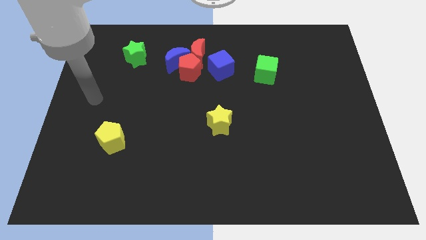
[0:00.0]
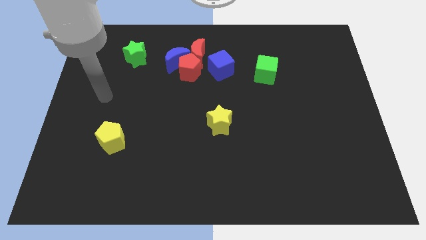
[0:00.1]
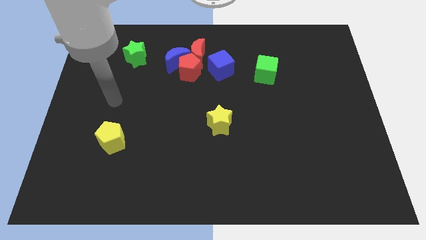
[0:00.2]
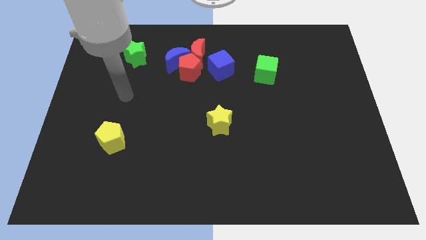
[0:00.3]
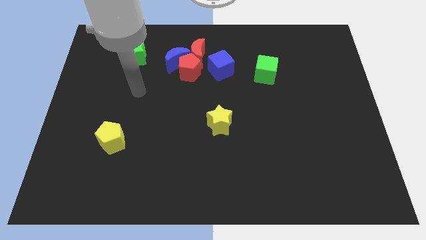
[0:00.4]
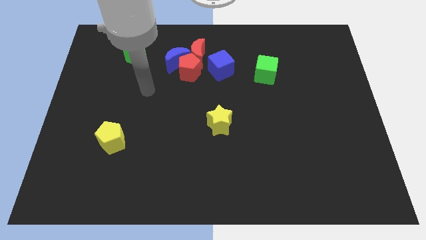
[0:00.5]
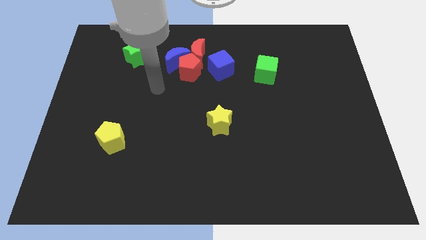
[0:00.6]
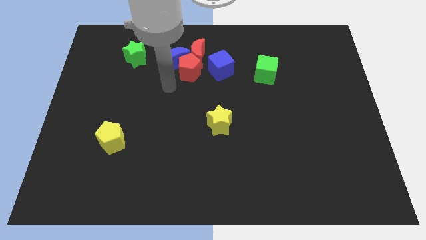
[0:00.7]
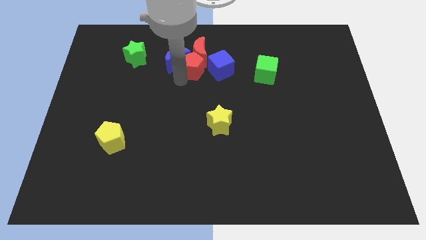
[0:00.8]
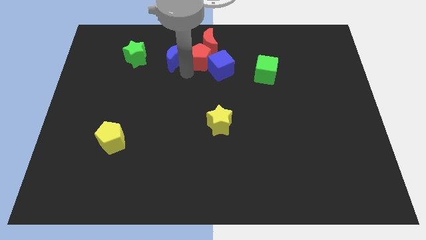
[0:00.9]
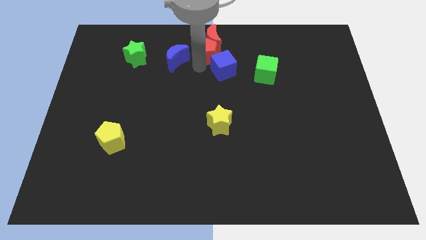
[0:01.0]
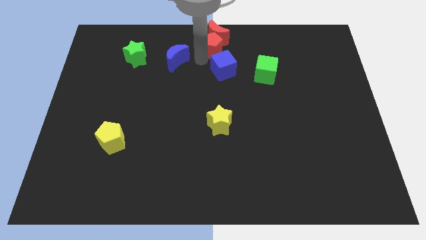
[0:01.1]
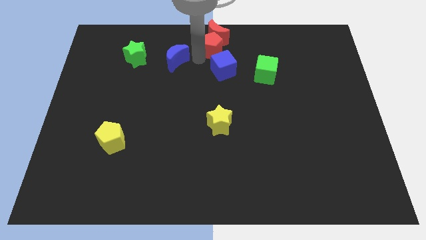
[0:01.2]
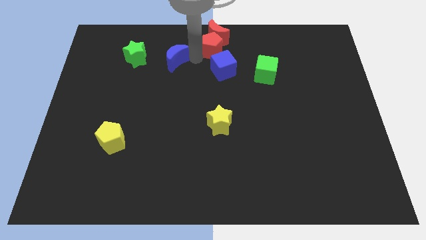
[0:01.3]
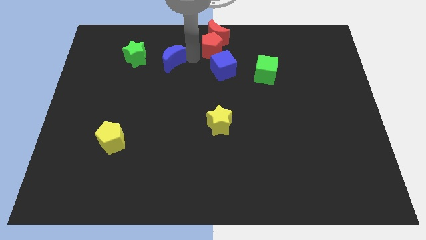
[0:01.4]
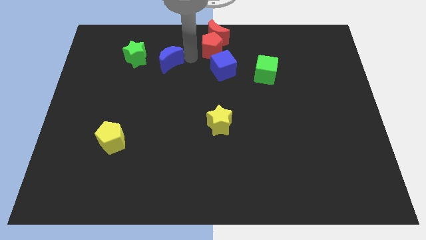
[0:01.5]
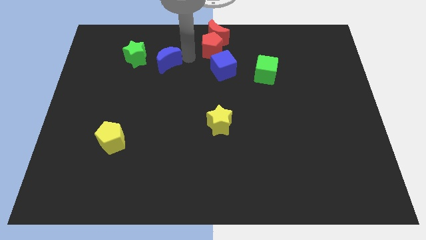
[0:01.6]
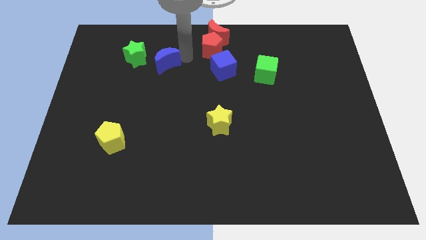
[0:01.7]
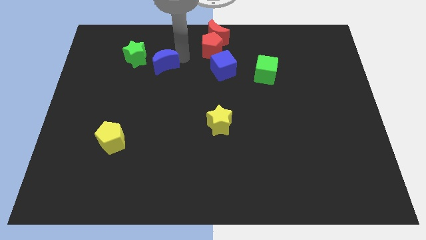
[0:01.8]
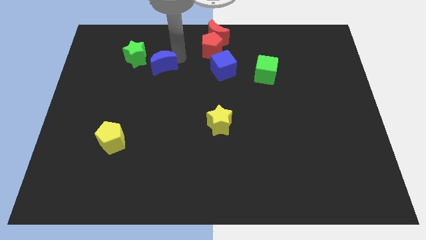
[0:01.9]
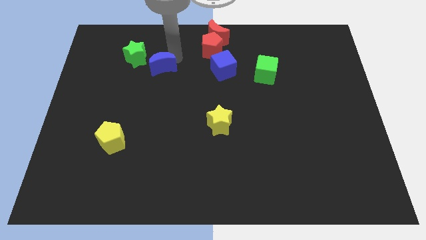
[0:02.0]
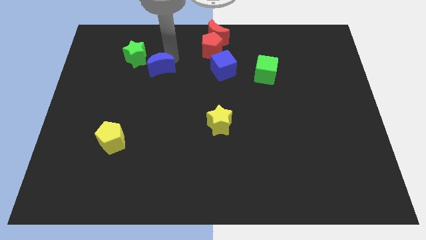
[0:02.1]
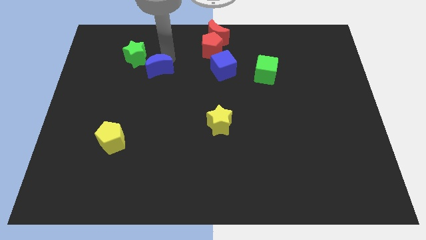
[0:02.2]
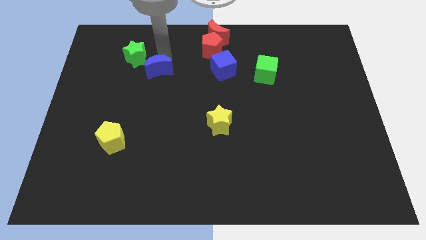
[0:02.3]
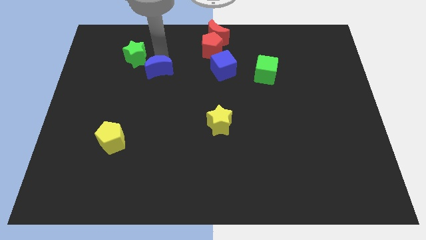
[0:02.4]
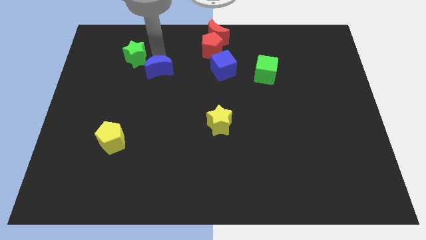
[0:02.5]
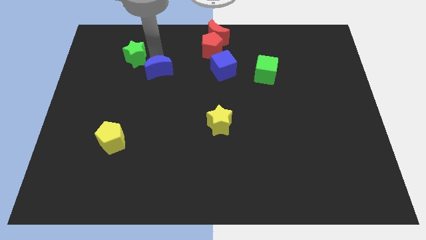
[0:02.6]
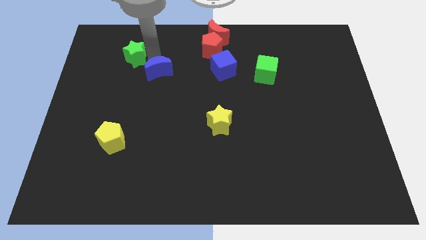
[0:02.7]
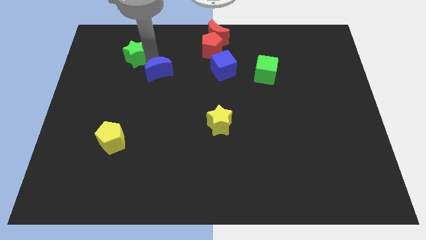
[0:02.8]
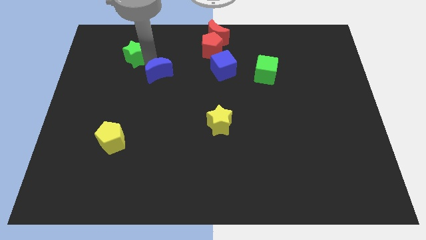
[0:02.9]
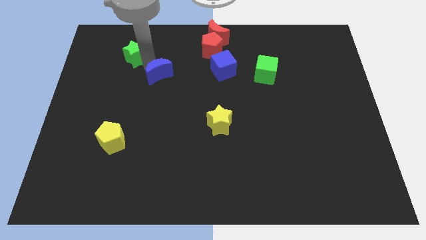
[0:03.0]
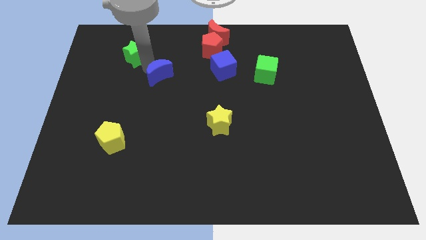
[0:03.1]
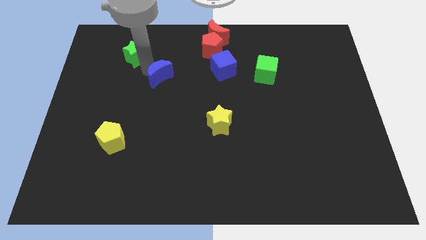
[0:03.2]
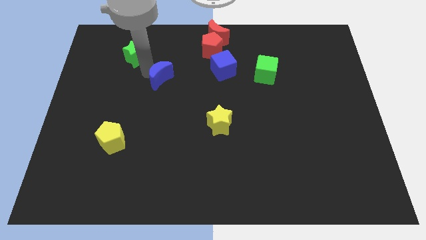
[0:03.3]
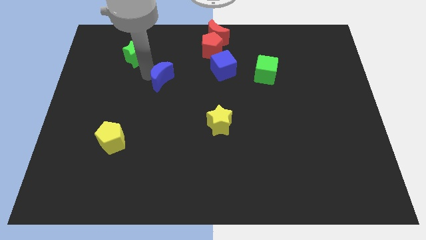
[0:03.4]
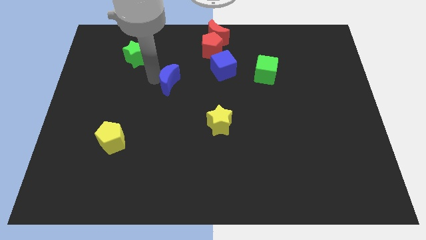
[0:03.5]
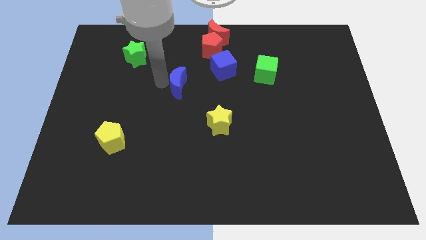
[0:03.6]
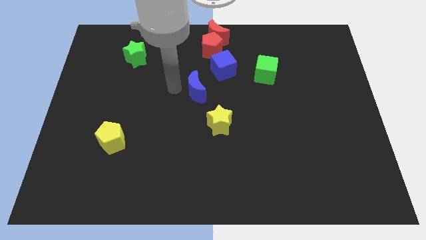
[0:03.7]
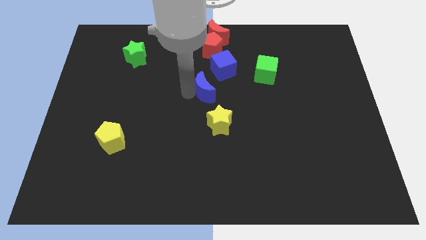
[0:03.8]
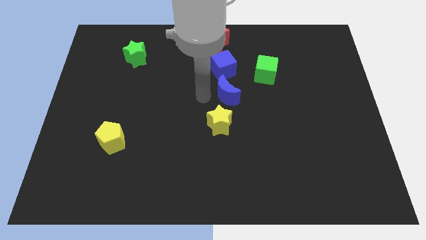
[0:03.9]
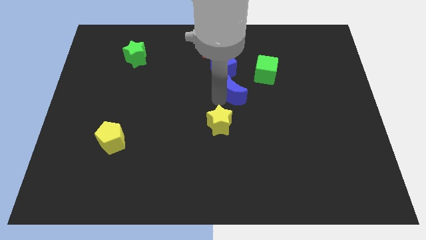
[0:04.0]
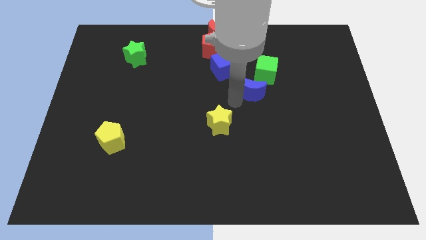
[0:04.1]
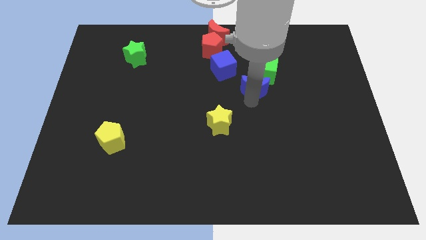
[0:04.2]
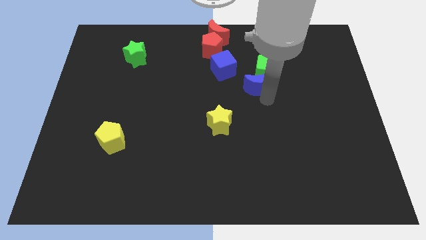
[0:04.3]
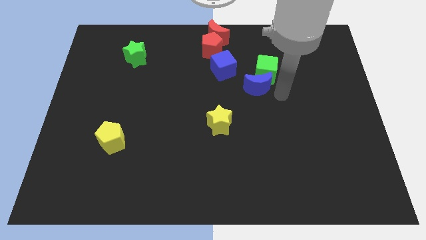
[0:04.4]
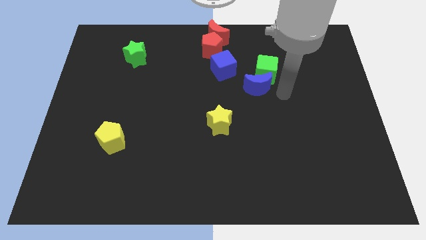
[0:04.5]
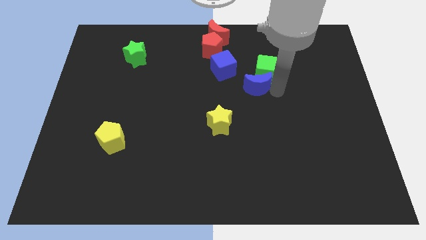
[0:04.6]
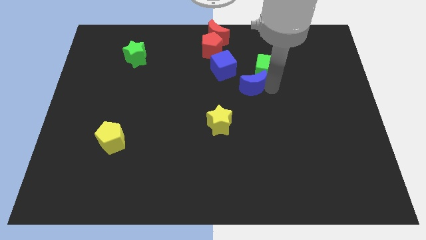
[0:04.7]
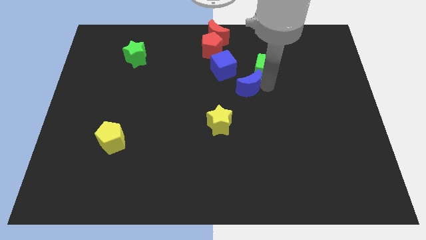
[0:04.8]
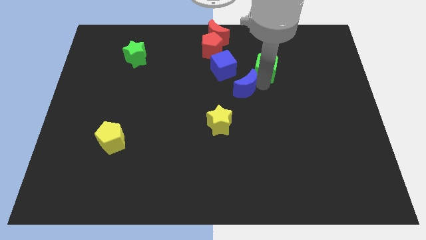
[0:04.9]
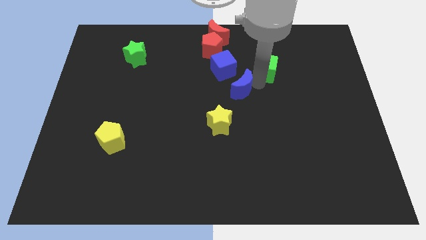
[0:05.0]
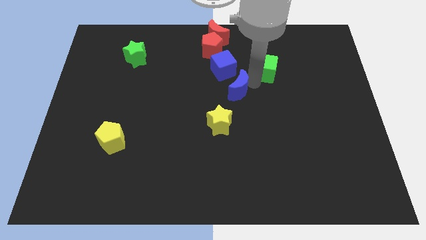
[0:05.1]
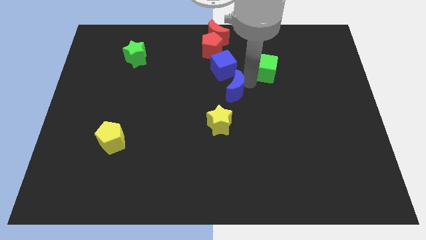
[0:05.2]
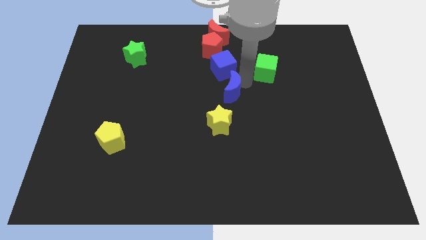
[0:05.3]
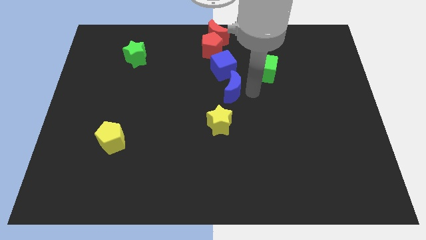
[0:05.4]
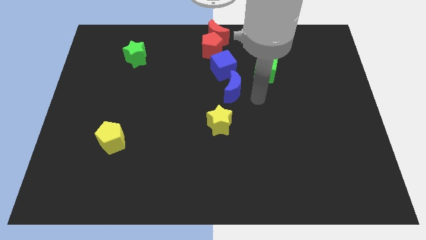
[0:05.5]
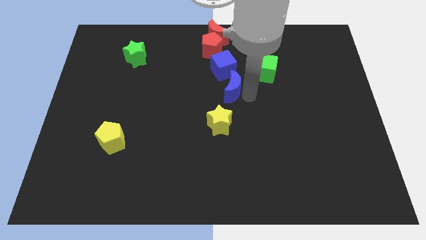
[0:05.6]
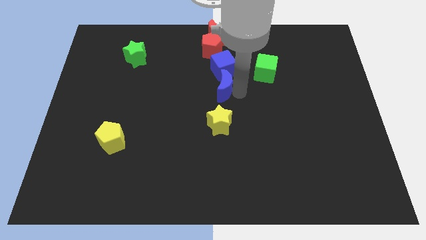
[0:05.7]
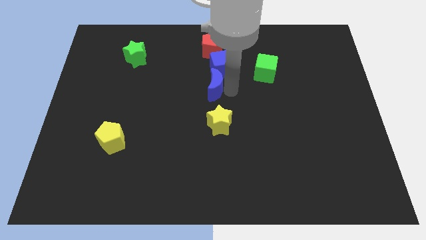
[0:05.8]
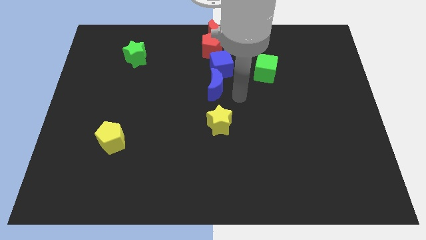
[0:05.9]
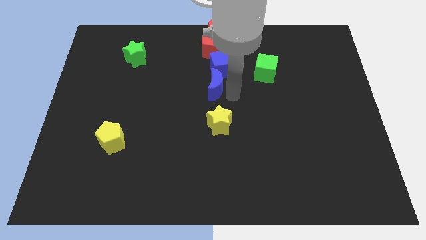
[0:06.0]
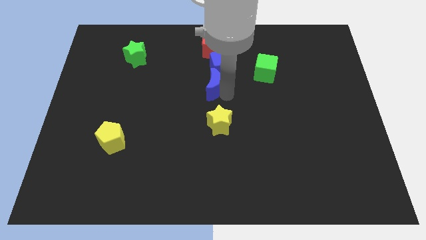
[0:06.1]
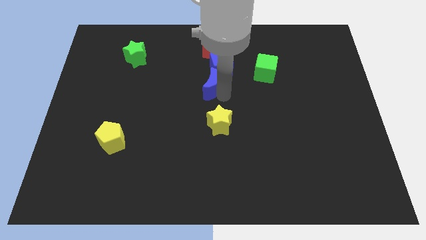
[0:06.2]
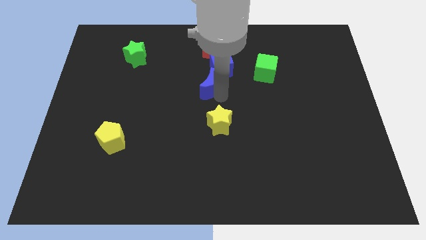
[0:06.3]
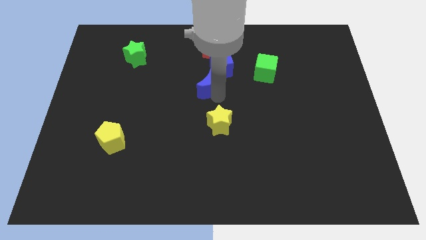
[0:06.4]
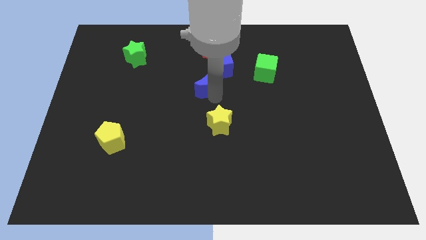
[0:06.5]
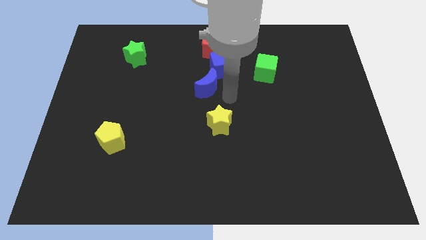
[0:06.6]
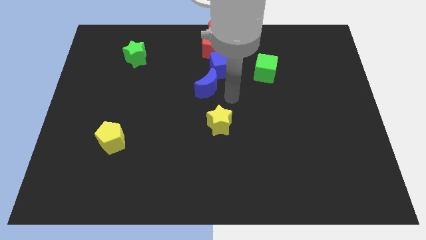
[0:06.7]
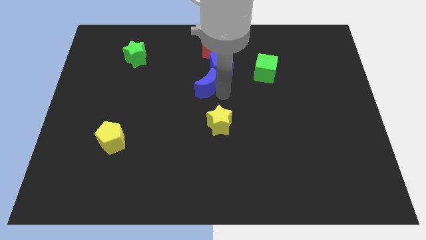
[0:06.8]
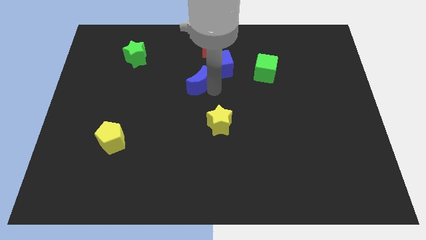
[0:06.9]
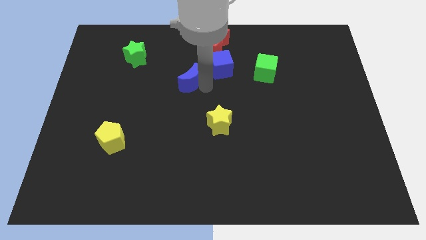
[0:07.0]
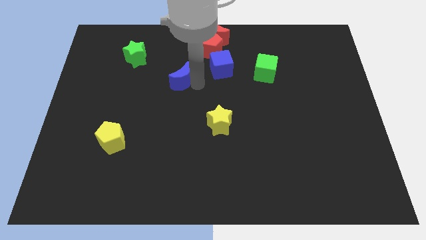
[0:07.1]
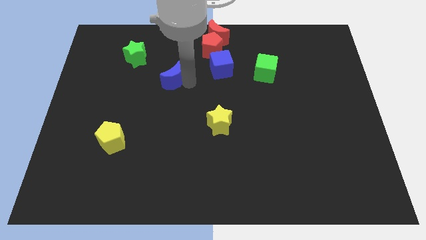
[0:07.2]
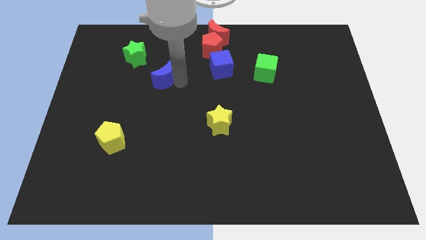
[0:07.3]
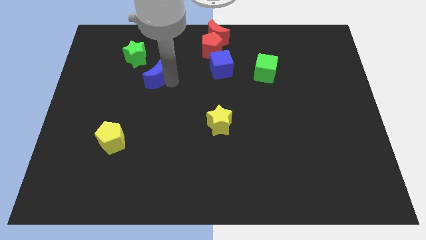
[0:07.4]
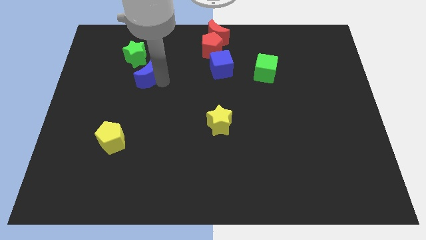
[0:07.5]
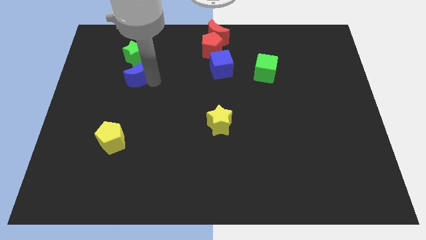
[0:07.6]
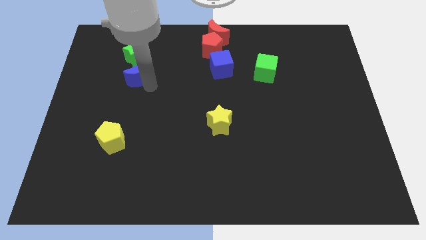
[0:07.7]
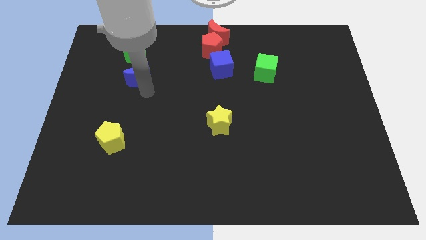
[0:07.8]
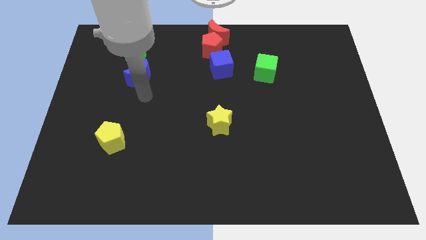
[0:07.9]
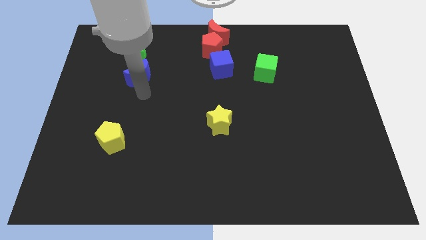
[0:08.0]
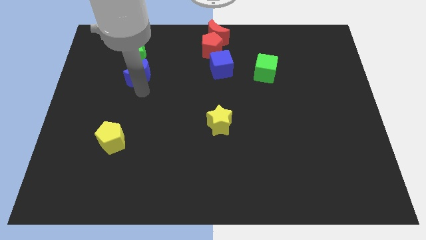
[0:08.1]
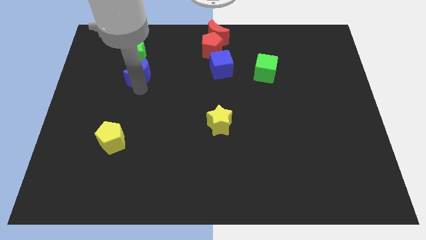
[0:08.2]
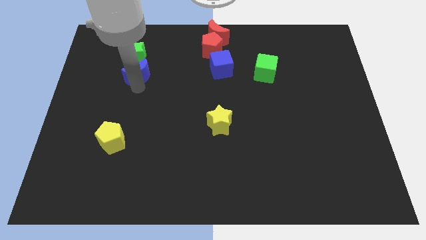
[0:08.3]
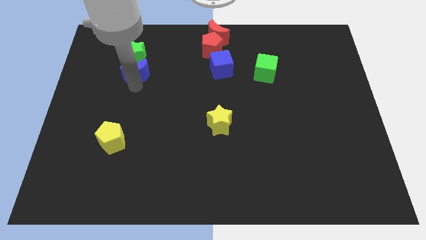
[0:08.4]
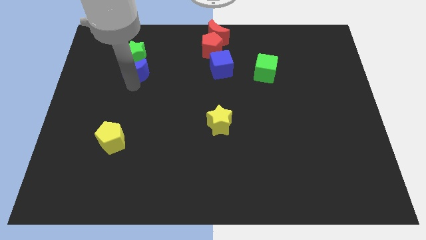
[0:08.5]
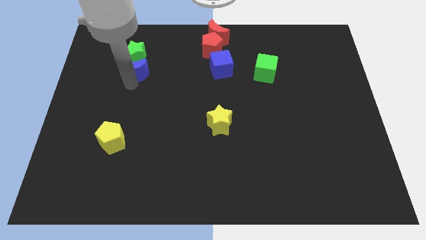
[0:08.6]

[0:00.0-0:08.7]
push the blue moon to the green star
